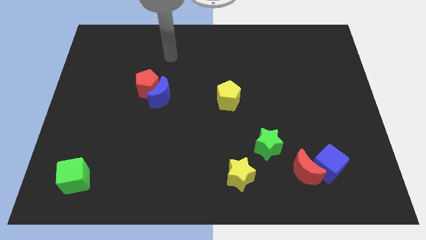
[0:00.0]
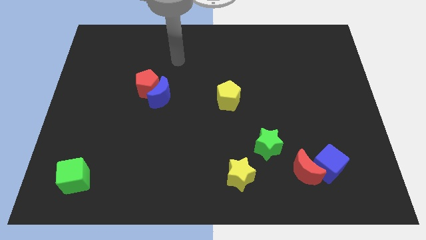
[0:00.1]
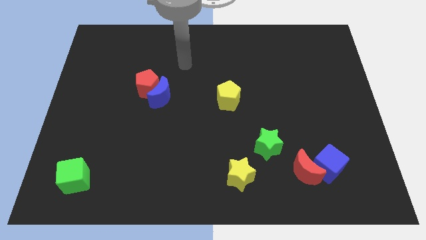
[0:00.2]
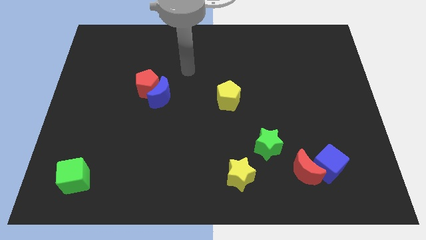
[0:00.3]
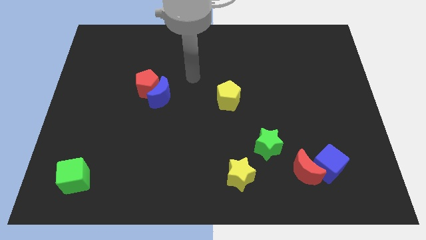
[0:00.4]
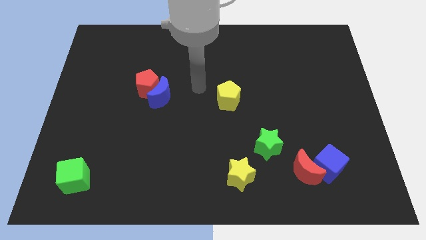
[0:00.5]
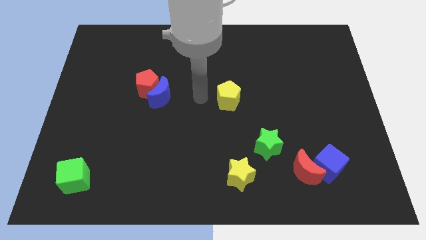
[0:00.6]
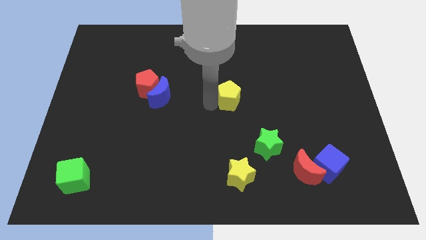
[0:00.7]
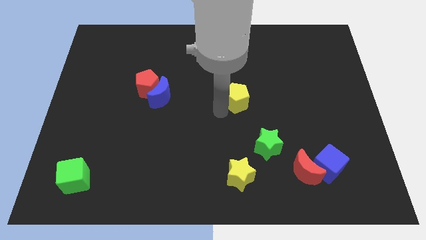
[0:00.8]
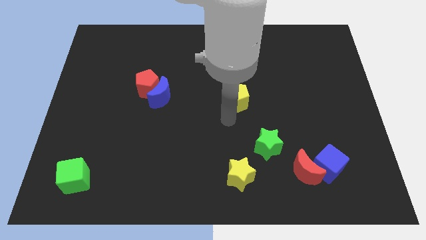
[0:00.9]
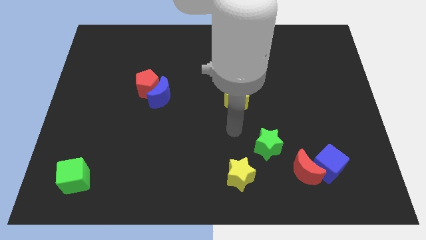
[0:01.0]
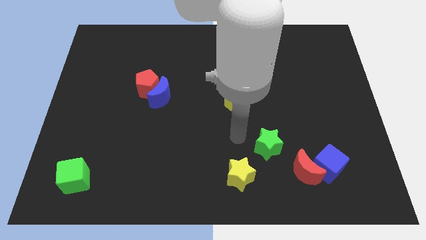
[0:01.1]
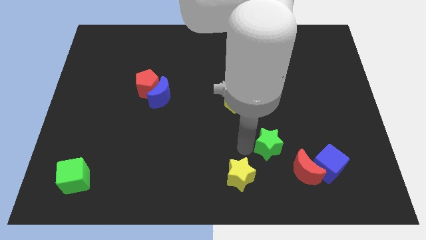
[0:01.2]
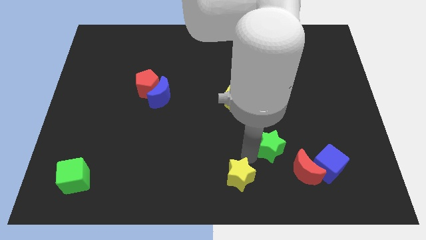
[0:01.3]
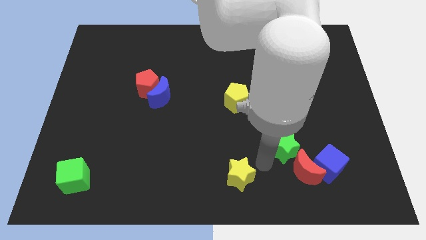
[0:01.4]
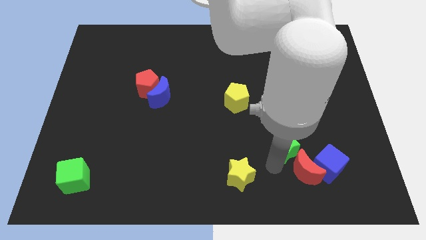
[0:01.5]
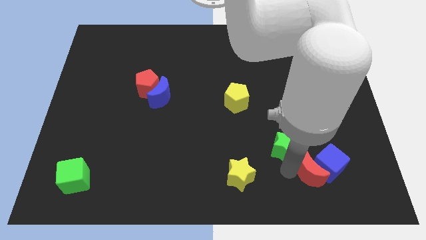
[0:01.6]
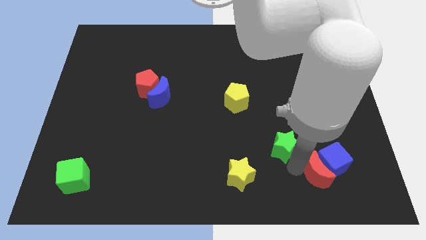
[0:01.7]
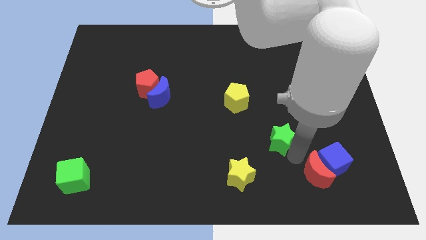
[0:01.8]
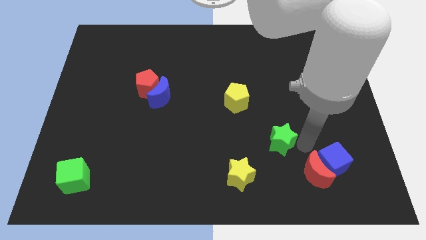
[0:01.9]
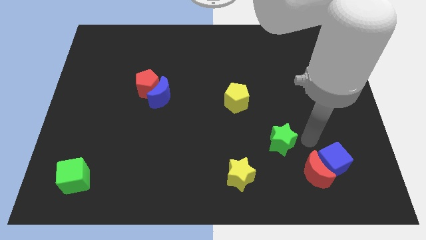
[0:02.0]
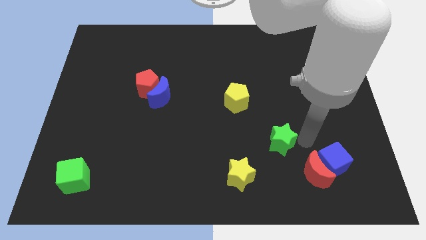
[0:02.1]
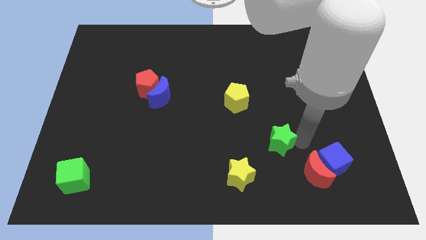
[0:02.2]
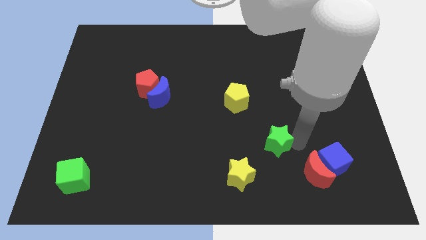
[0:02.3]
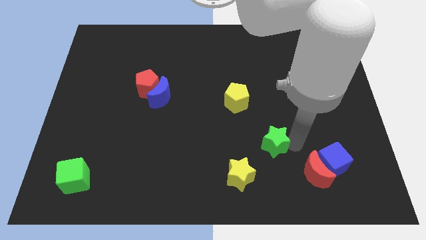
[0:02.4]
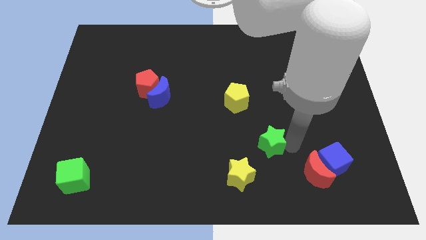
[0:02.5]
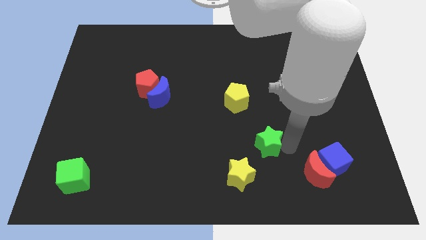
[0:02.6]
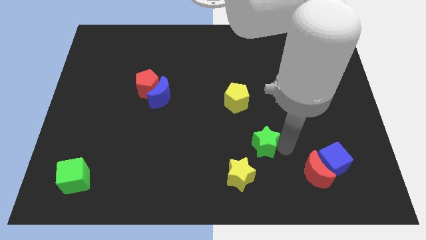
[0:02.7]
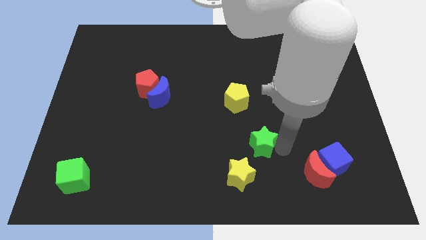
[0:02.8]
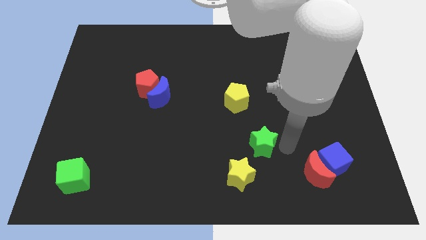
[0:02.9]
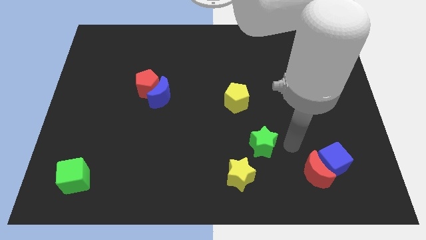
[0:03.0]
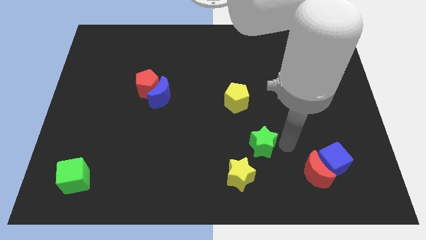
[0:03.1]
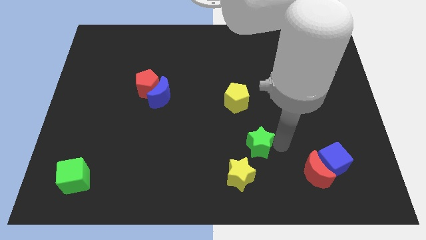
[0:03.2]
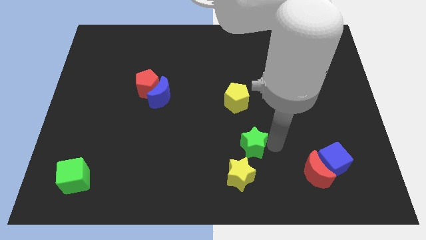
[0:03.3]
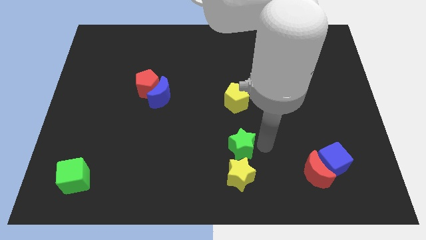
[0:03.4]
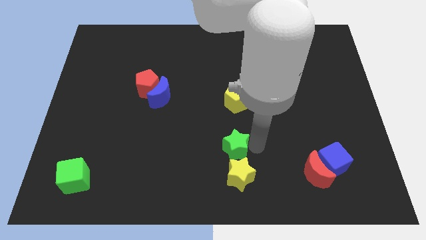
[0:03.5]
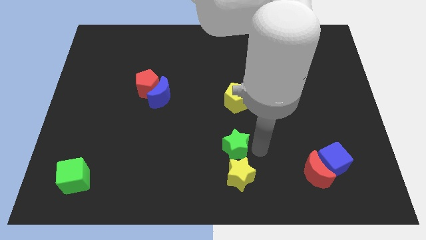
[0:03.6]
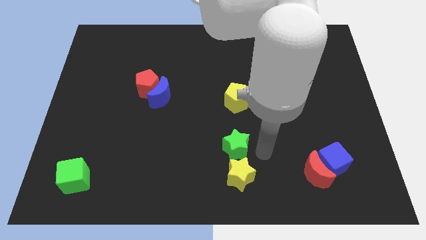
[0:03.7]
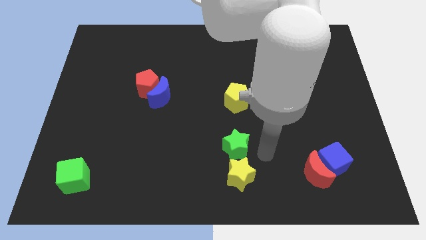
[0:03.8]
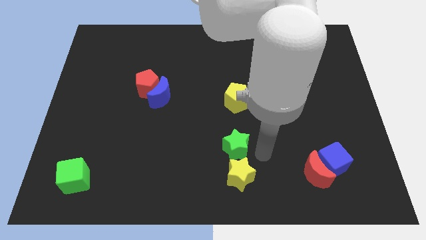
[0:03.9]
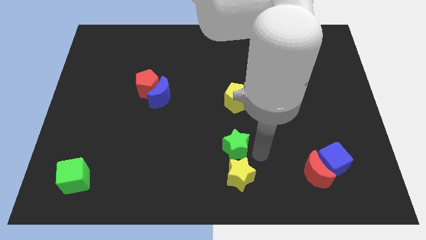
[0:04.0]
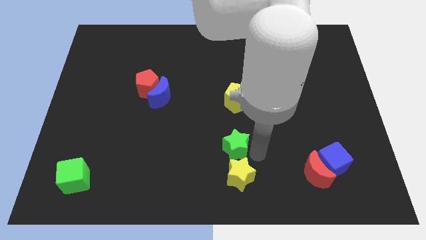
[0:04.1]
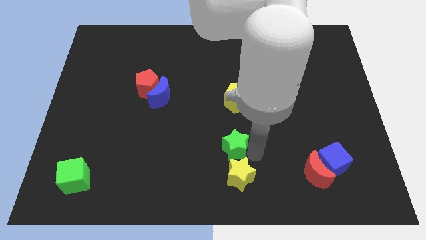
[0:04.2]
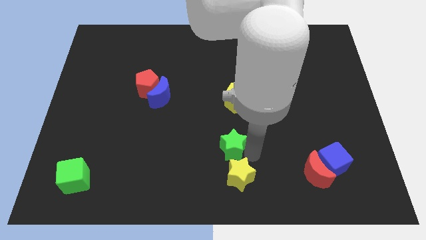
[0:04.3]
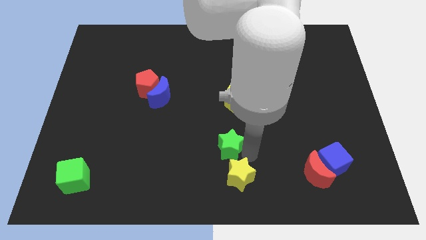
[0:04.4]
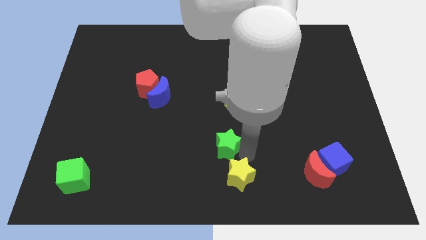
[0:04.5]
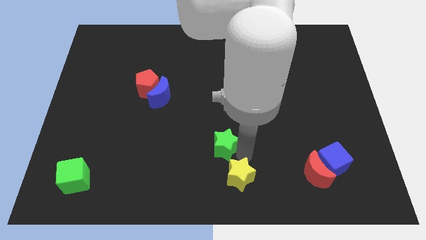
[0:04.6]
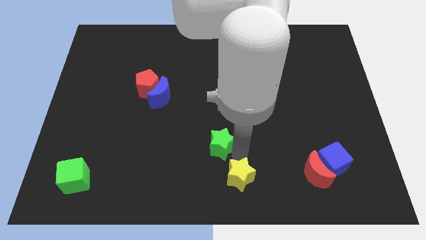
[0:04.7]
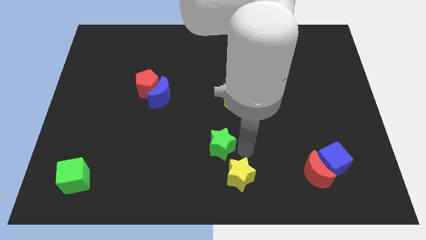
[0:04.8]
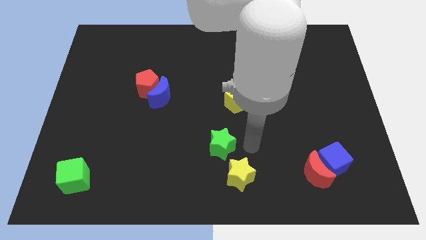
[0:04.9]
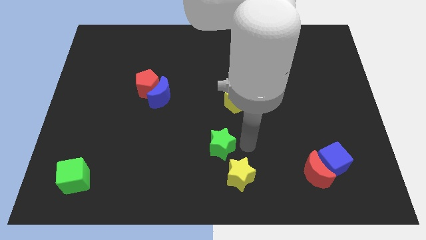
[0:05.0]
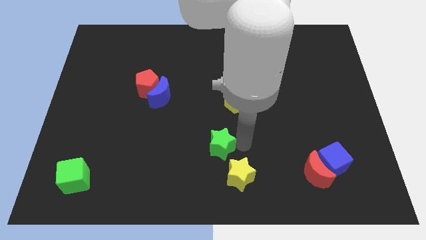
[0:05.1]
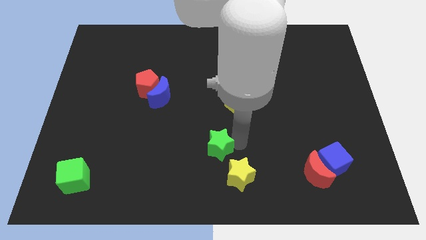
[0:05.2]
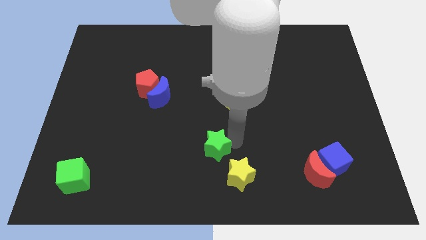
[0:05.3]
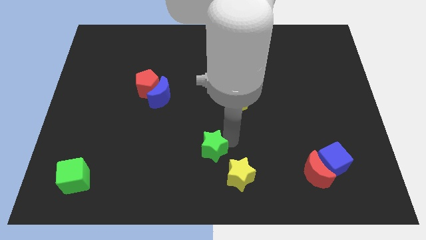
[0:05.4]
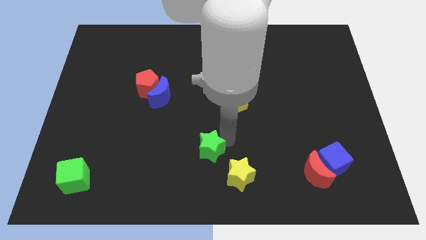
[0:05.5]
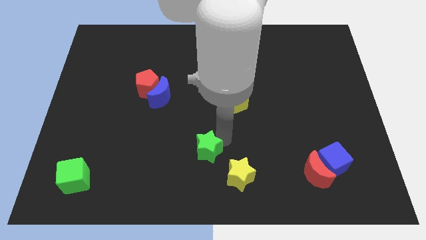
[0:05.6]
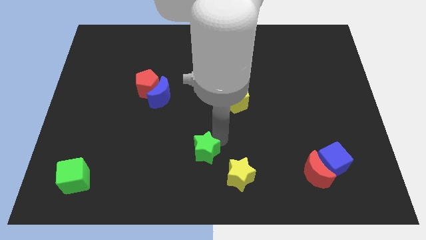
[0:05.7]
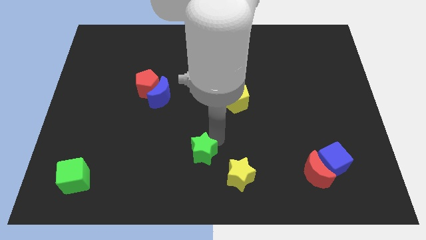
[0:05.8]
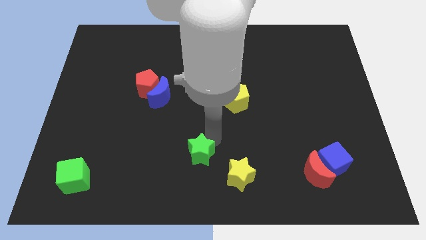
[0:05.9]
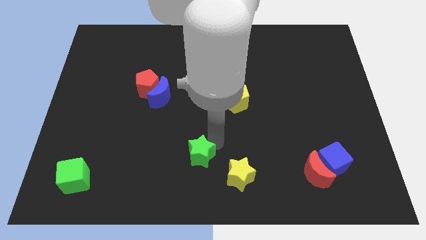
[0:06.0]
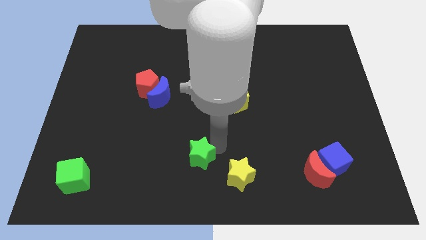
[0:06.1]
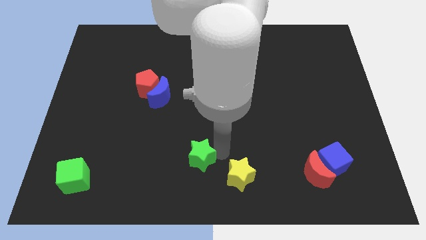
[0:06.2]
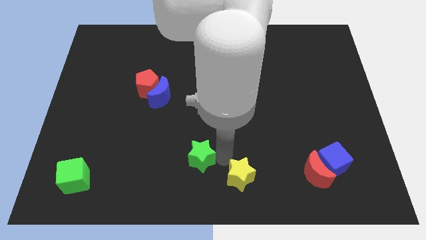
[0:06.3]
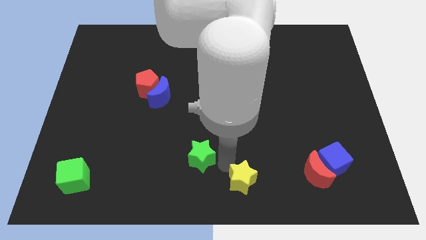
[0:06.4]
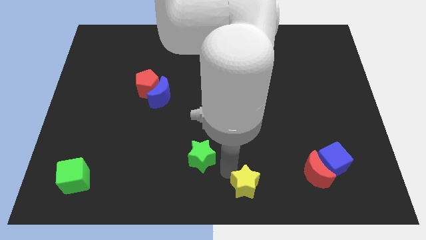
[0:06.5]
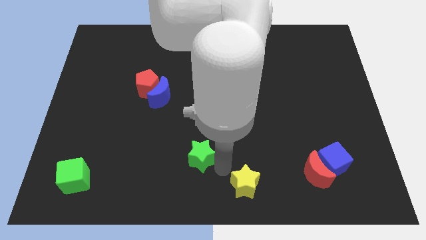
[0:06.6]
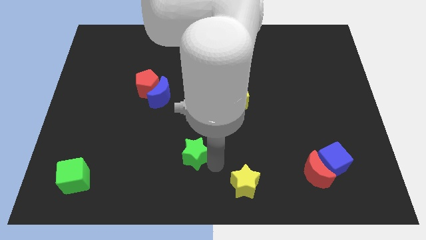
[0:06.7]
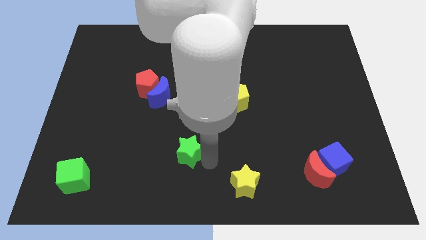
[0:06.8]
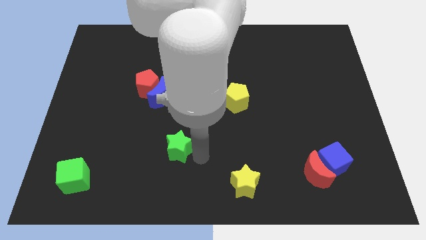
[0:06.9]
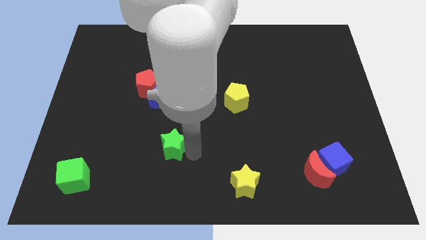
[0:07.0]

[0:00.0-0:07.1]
slide the green star left

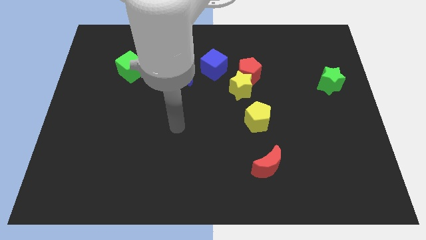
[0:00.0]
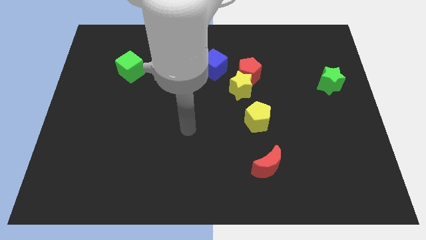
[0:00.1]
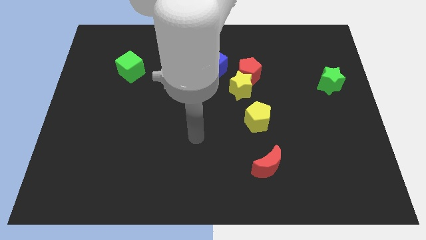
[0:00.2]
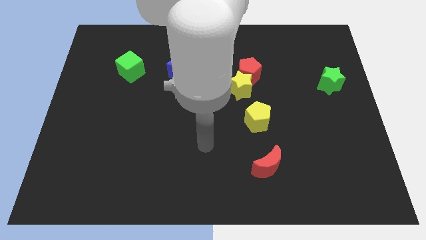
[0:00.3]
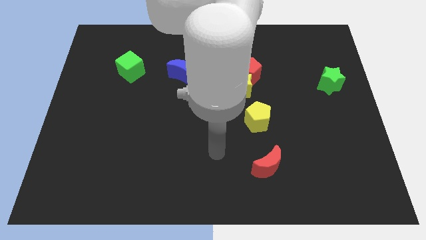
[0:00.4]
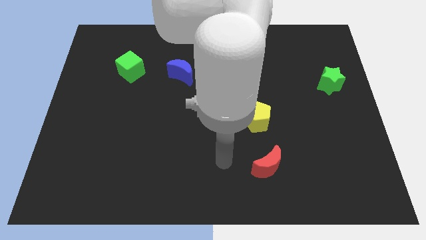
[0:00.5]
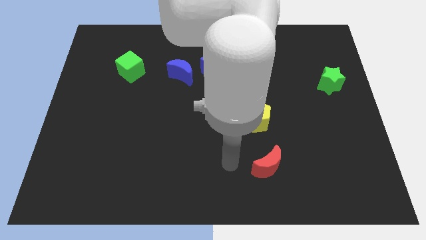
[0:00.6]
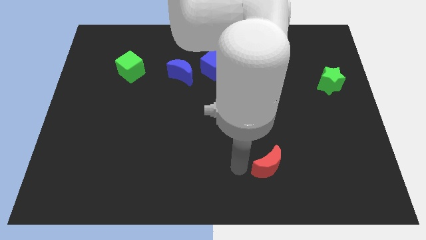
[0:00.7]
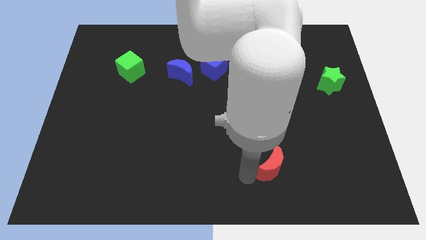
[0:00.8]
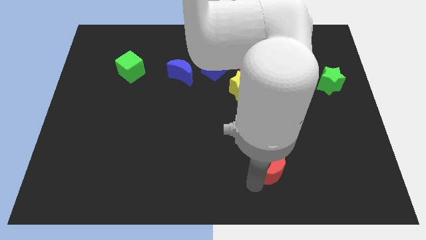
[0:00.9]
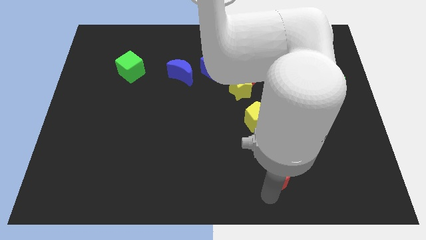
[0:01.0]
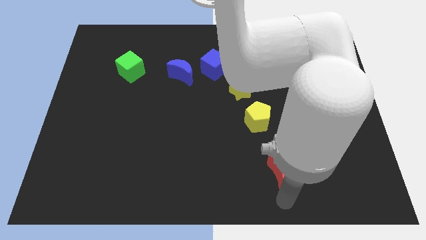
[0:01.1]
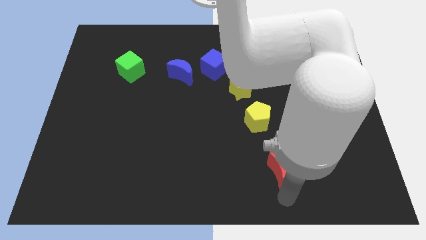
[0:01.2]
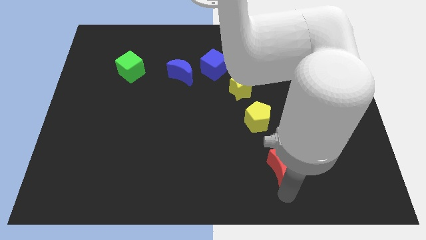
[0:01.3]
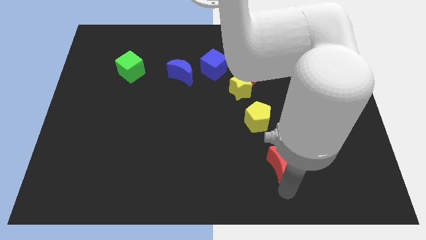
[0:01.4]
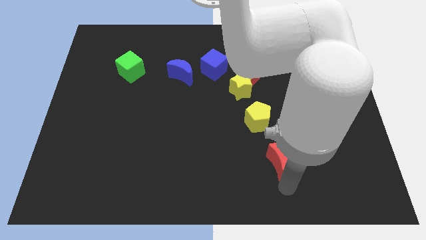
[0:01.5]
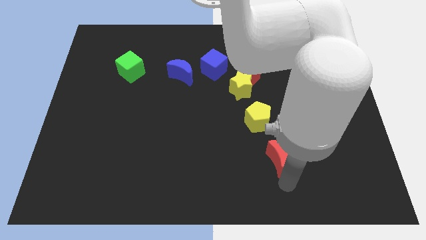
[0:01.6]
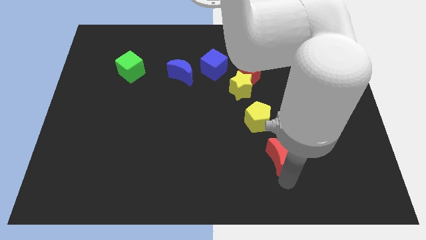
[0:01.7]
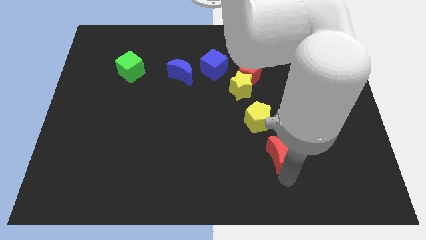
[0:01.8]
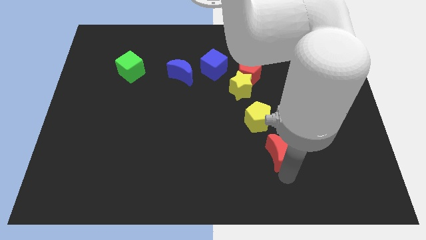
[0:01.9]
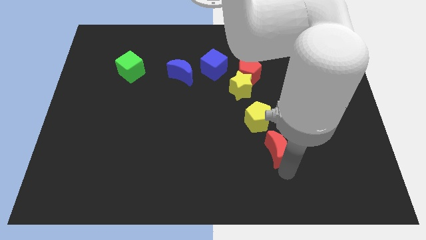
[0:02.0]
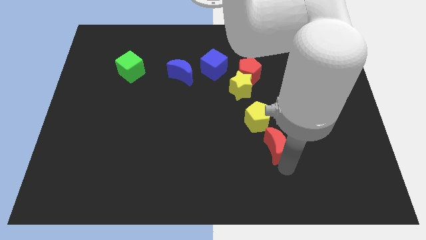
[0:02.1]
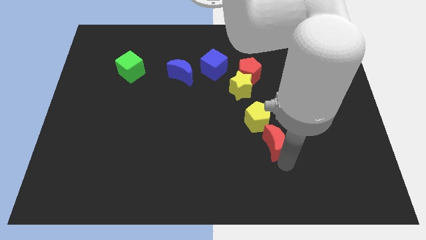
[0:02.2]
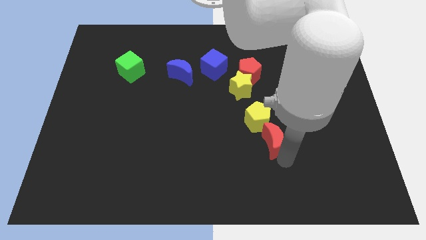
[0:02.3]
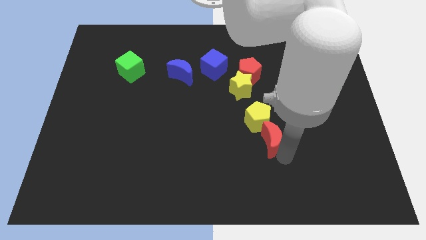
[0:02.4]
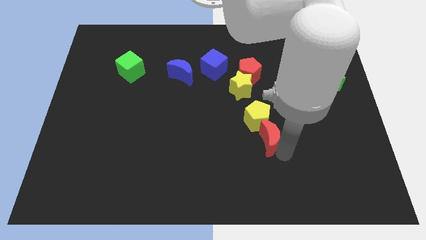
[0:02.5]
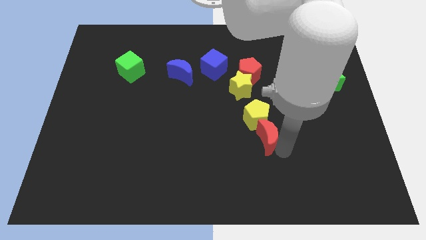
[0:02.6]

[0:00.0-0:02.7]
slide the red moon up somewhat
